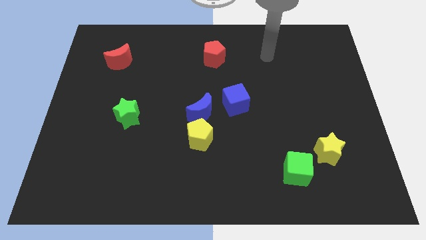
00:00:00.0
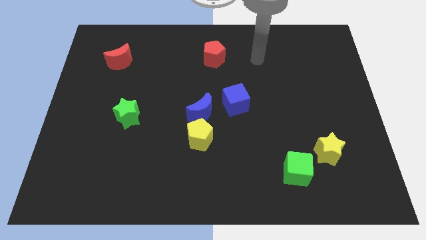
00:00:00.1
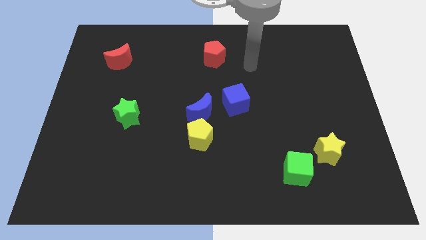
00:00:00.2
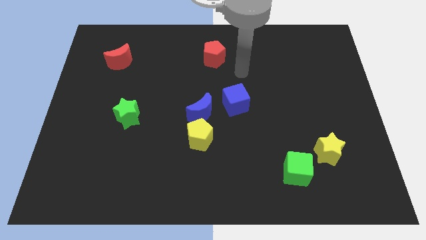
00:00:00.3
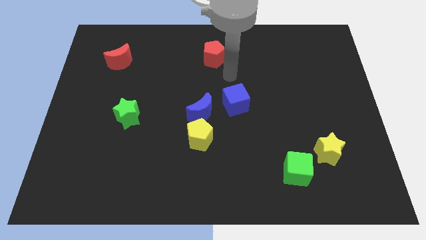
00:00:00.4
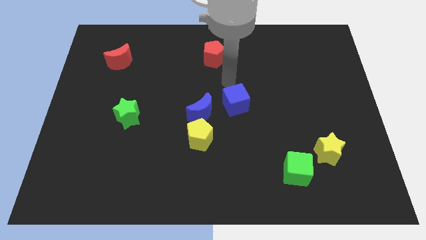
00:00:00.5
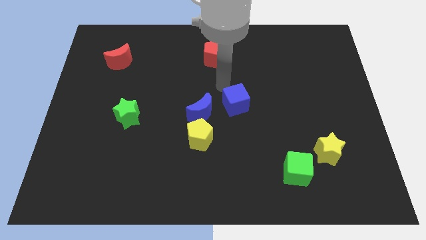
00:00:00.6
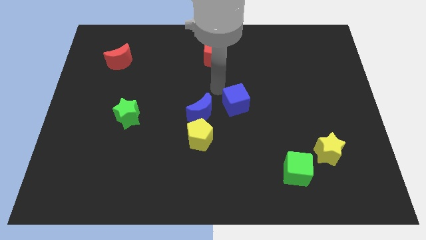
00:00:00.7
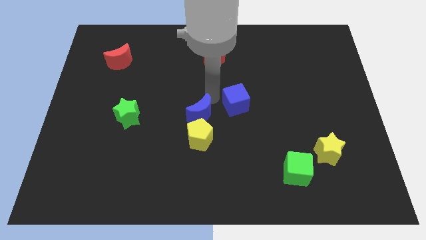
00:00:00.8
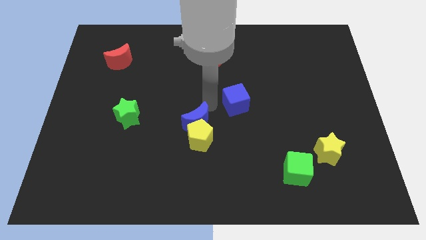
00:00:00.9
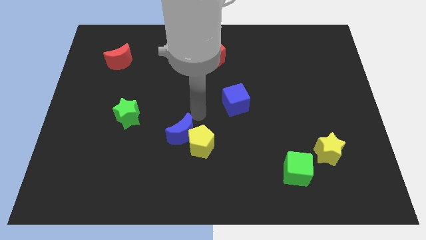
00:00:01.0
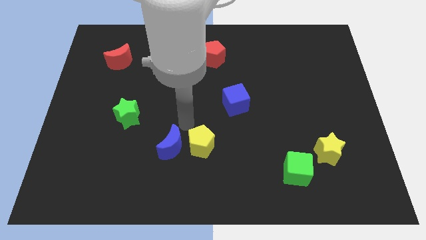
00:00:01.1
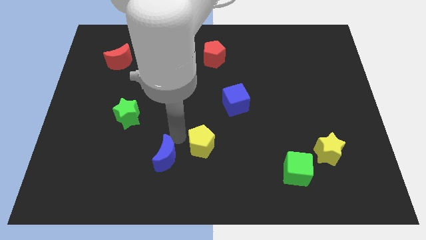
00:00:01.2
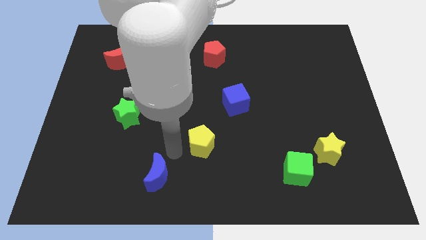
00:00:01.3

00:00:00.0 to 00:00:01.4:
move the yellow pentagon away from the blue moon

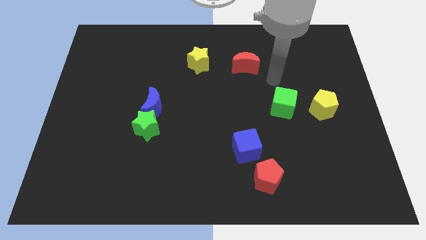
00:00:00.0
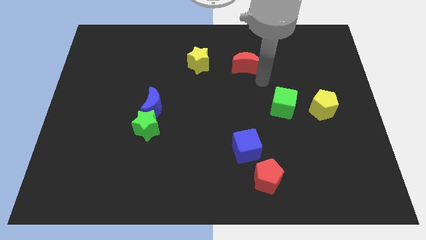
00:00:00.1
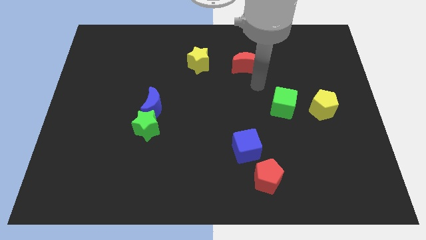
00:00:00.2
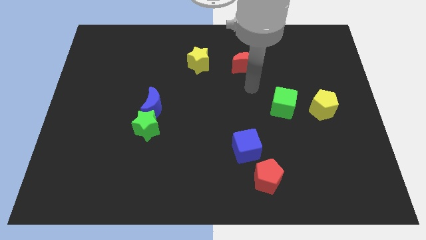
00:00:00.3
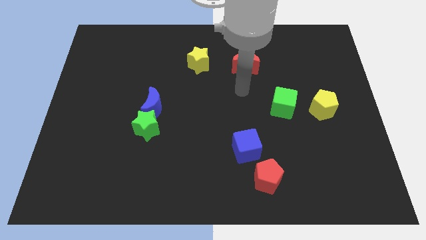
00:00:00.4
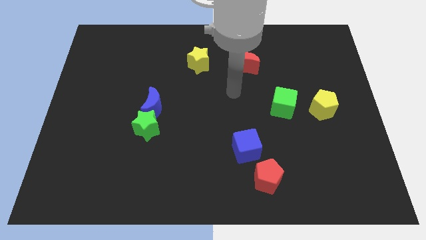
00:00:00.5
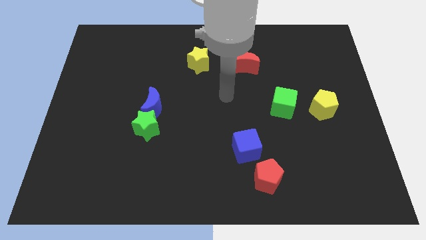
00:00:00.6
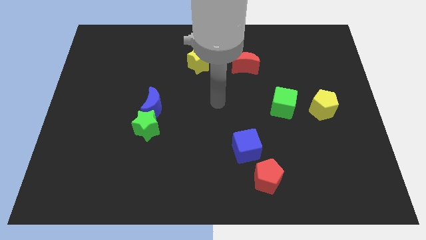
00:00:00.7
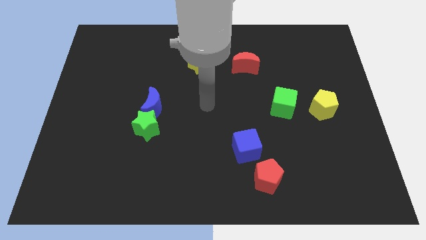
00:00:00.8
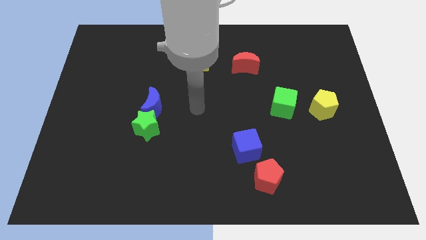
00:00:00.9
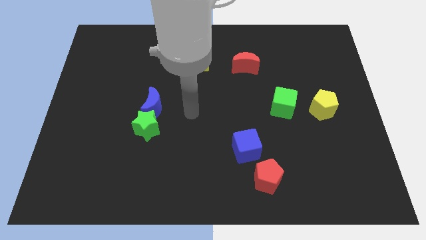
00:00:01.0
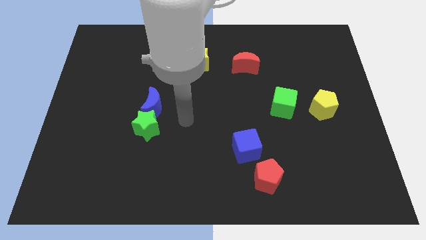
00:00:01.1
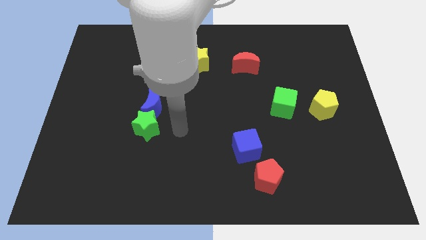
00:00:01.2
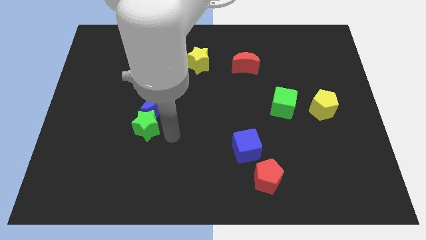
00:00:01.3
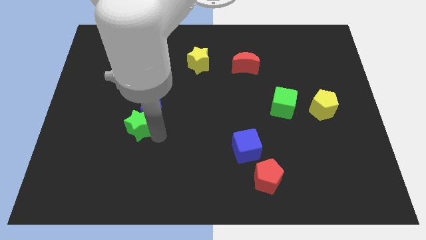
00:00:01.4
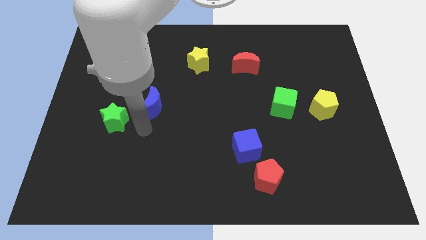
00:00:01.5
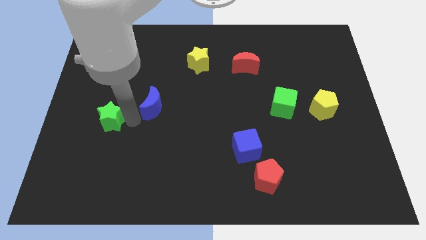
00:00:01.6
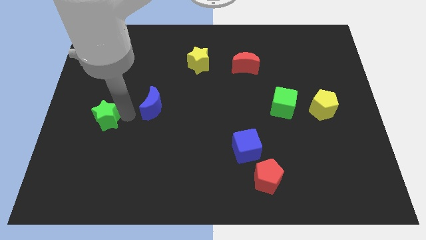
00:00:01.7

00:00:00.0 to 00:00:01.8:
separate the blue moon from the green star

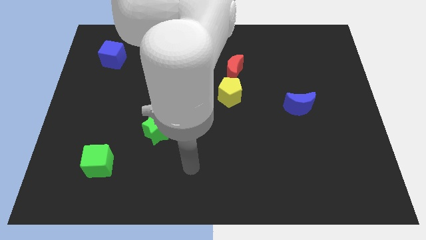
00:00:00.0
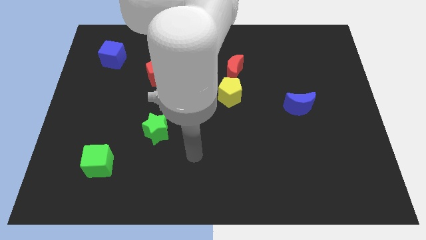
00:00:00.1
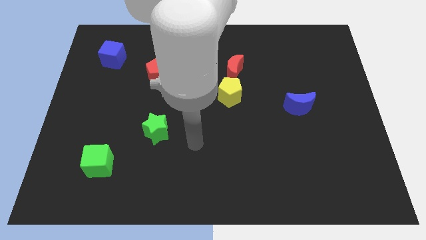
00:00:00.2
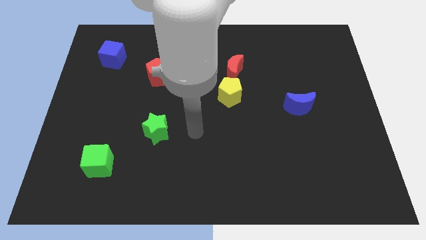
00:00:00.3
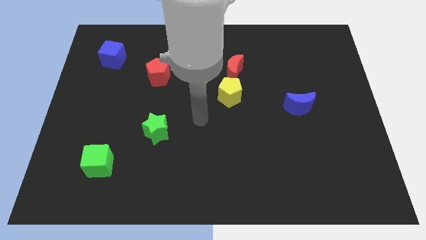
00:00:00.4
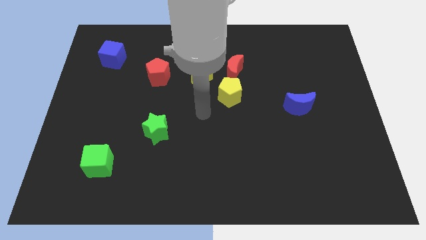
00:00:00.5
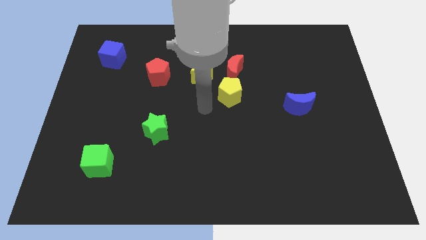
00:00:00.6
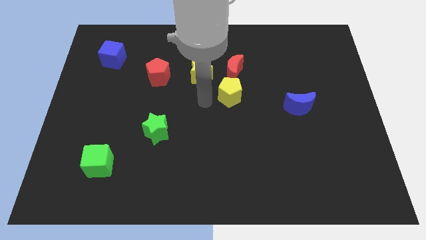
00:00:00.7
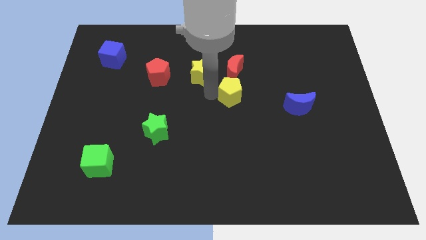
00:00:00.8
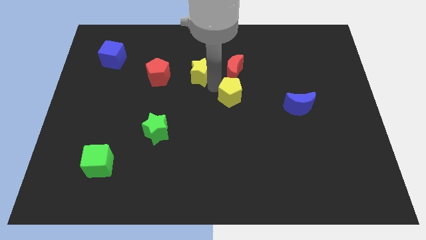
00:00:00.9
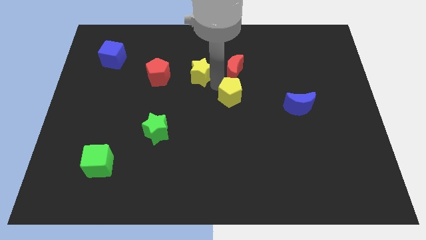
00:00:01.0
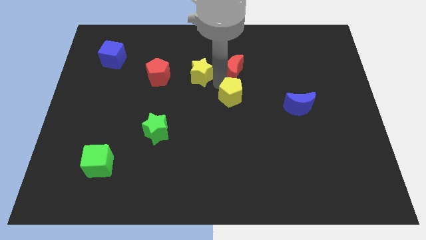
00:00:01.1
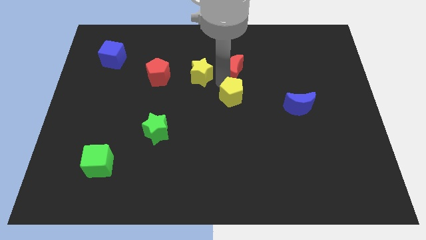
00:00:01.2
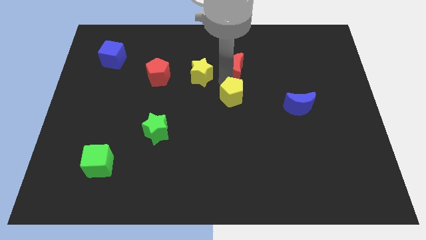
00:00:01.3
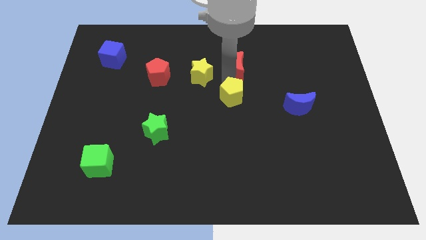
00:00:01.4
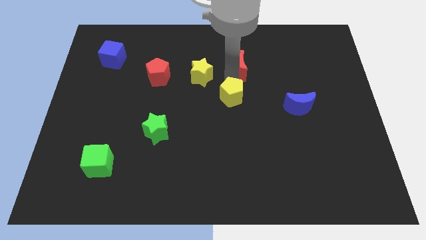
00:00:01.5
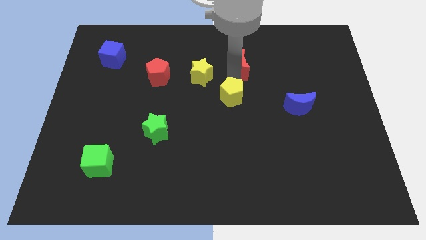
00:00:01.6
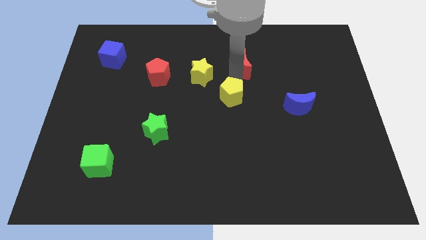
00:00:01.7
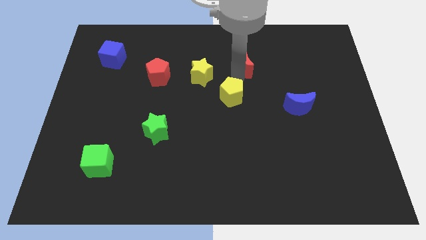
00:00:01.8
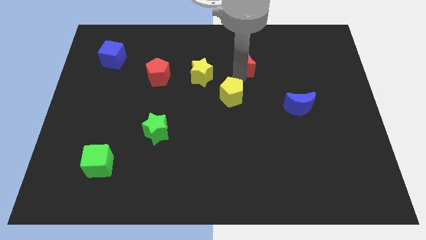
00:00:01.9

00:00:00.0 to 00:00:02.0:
pull the red moon apart from the yellow pentagon and yellow star

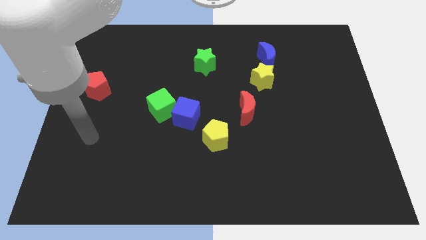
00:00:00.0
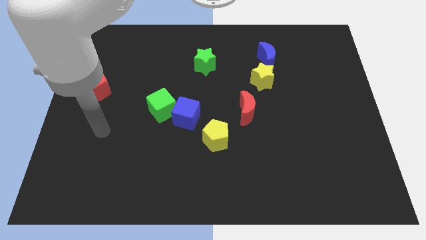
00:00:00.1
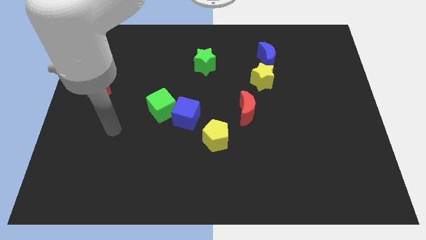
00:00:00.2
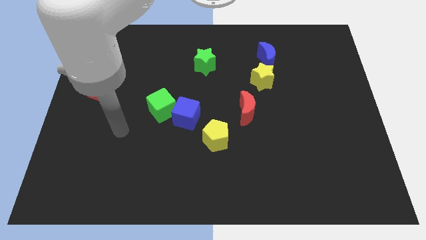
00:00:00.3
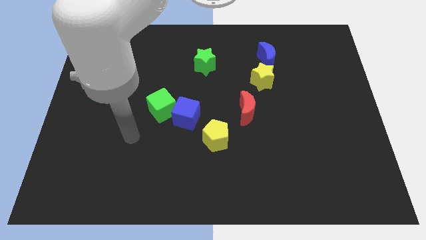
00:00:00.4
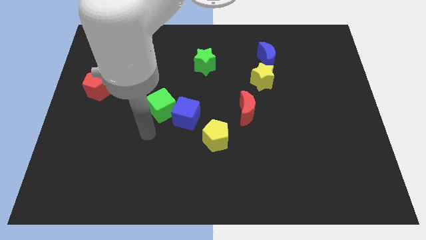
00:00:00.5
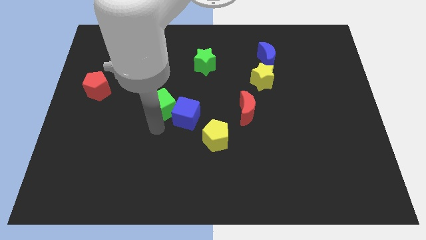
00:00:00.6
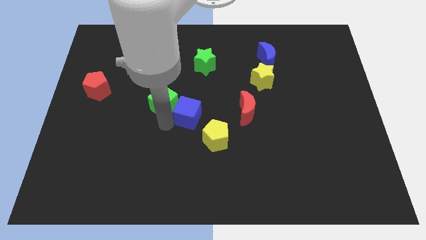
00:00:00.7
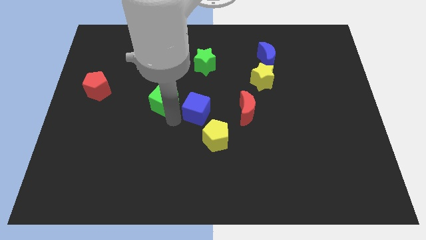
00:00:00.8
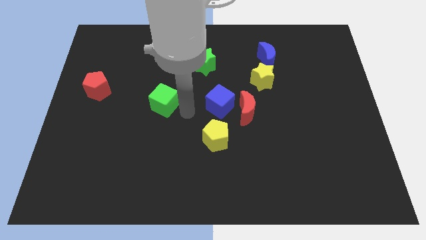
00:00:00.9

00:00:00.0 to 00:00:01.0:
move the green cube away from the blue cube

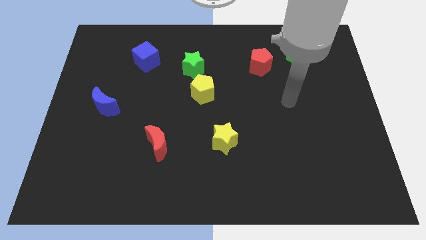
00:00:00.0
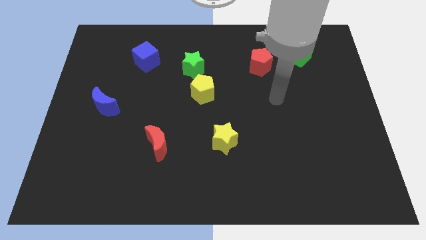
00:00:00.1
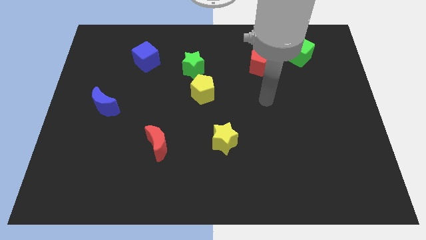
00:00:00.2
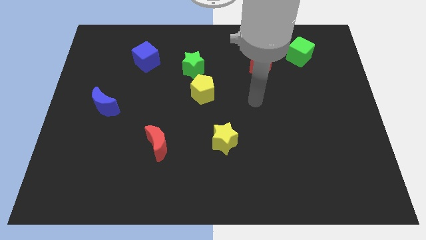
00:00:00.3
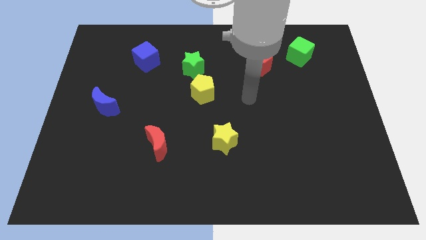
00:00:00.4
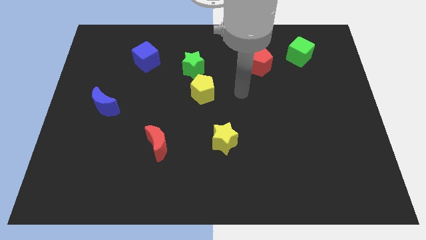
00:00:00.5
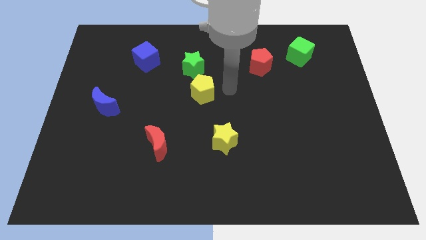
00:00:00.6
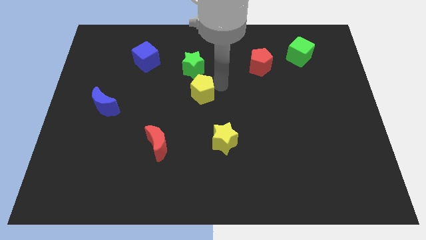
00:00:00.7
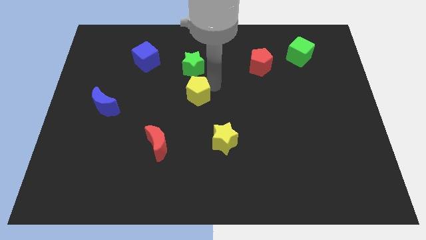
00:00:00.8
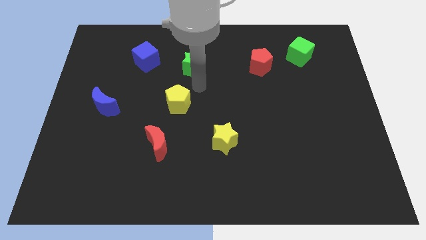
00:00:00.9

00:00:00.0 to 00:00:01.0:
move the green star away from the yellow pentagon

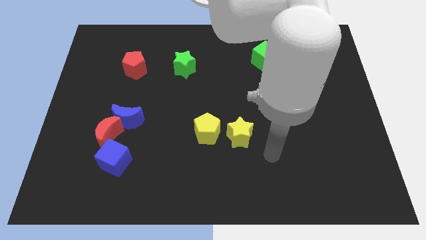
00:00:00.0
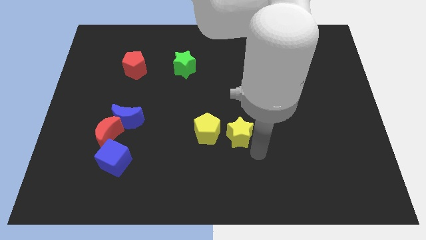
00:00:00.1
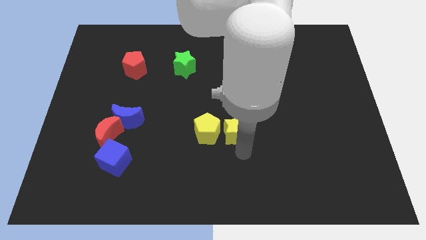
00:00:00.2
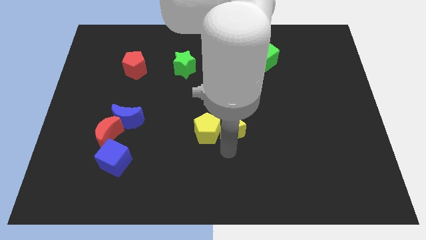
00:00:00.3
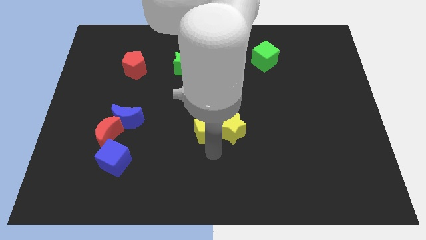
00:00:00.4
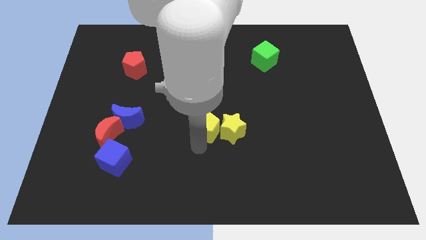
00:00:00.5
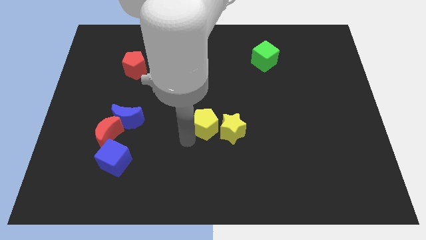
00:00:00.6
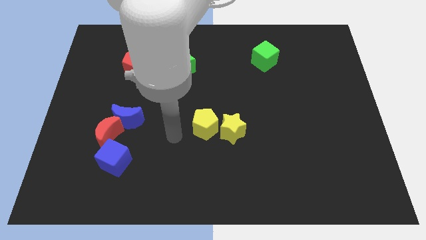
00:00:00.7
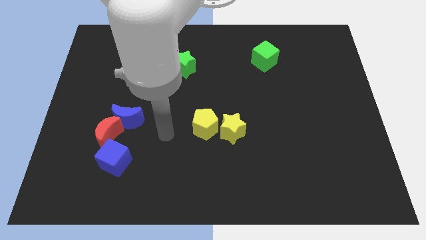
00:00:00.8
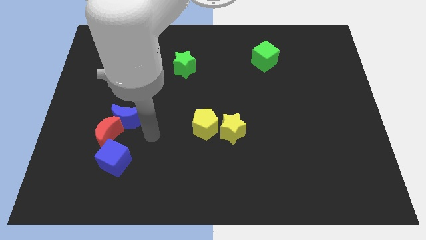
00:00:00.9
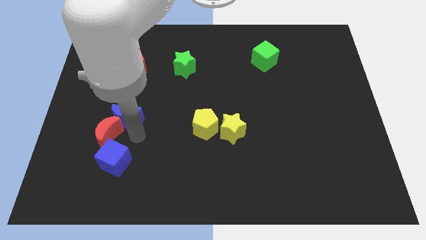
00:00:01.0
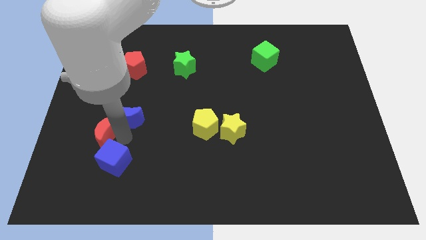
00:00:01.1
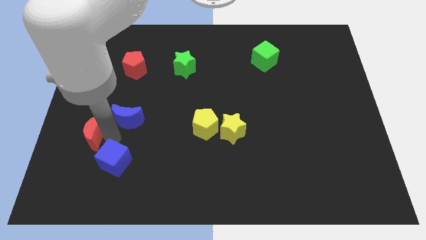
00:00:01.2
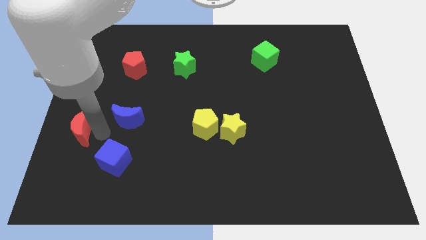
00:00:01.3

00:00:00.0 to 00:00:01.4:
separate the blue moon from the red moon

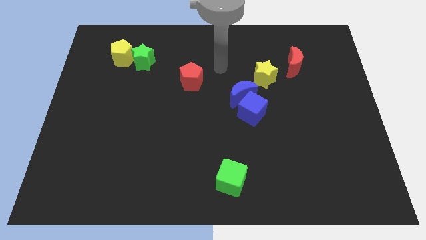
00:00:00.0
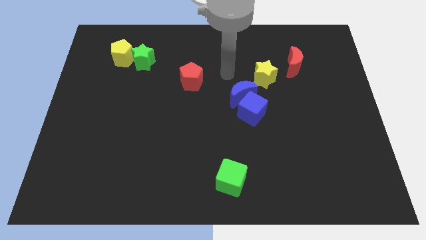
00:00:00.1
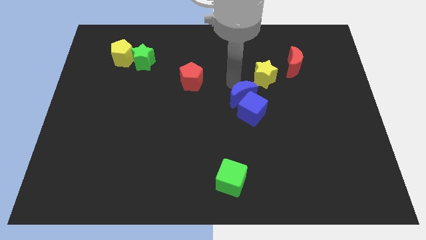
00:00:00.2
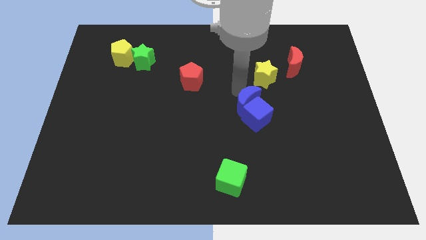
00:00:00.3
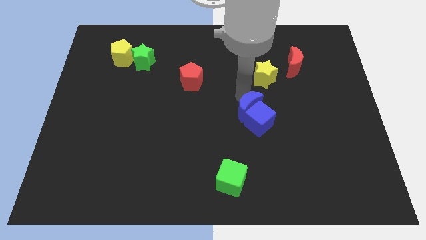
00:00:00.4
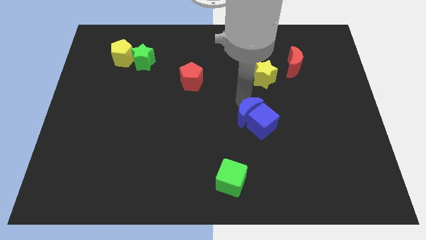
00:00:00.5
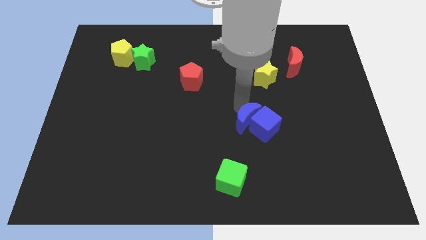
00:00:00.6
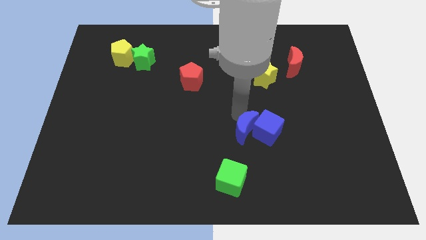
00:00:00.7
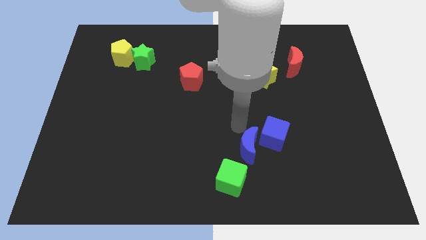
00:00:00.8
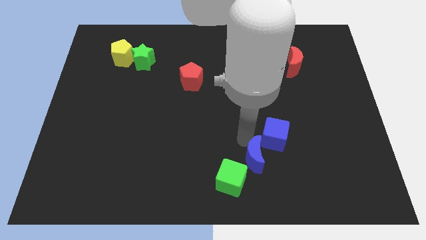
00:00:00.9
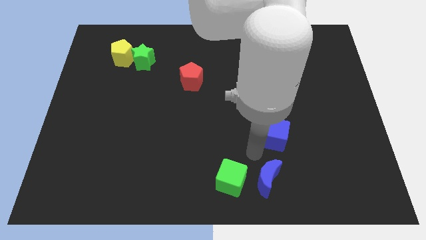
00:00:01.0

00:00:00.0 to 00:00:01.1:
pull the blue cube apart from the blue moon
